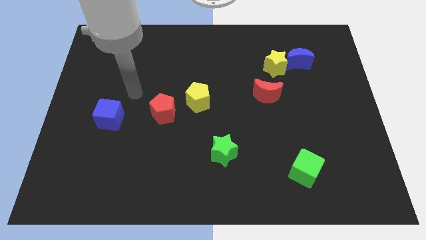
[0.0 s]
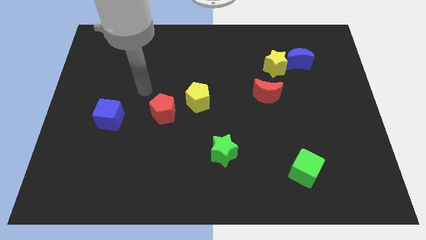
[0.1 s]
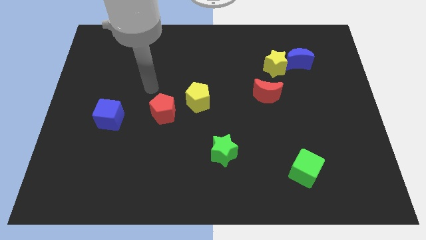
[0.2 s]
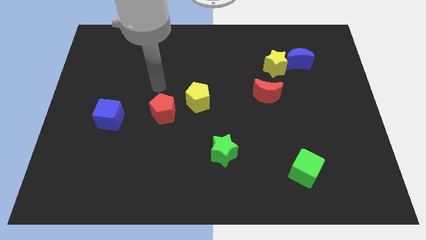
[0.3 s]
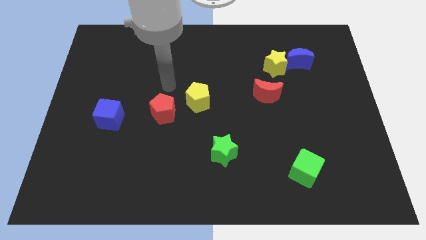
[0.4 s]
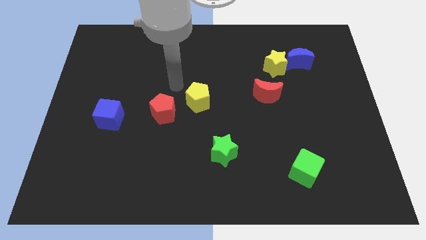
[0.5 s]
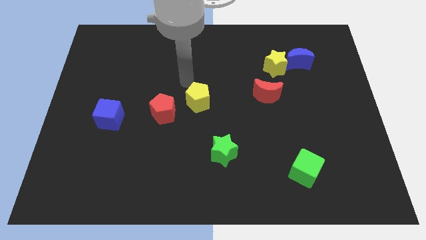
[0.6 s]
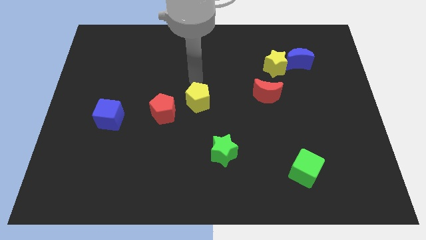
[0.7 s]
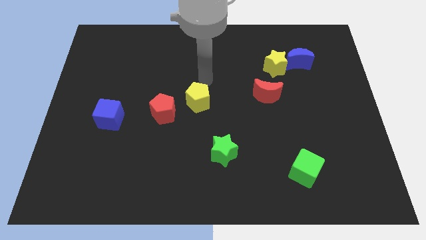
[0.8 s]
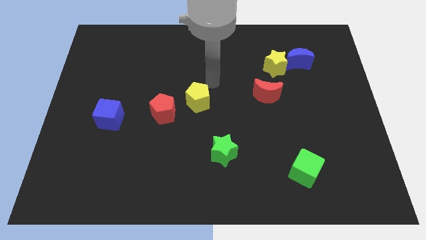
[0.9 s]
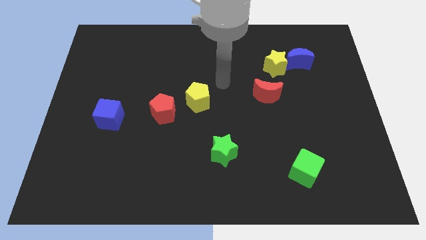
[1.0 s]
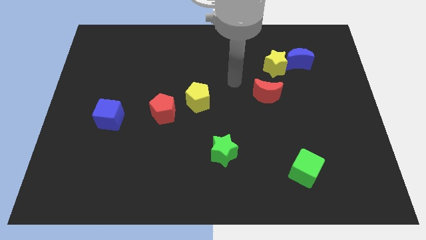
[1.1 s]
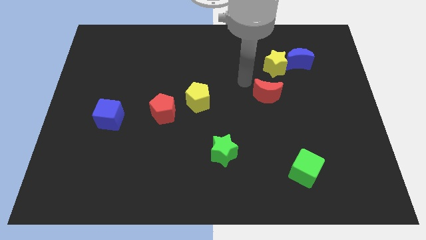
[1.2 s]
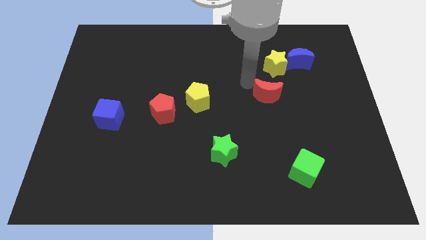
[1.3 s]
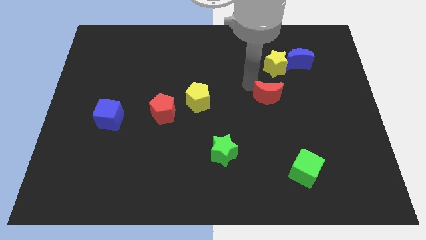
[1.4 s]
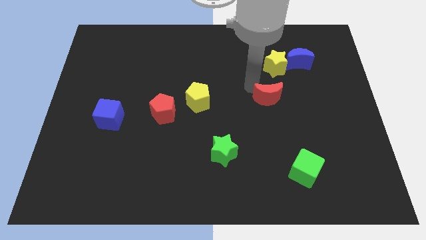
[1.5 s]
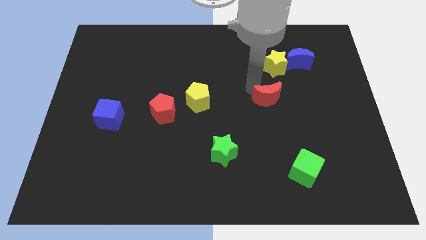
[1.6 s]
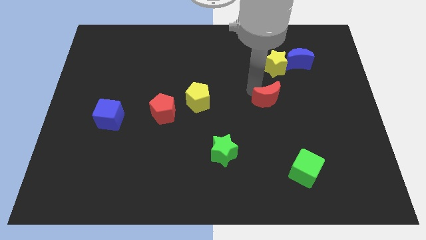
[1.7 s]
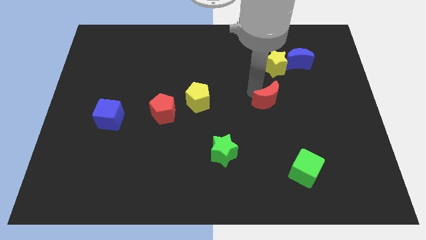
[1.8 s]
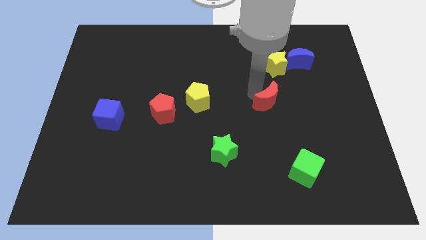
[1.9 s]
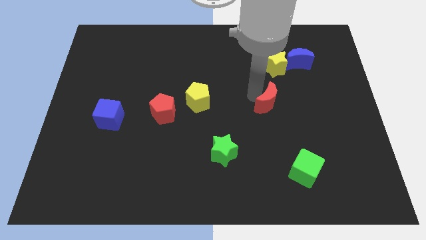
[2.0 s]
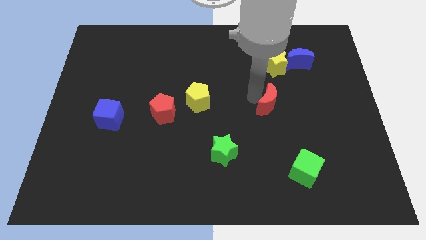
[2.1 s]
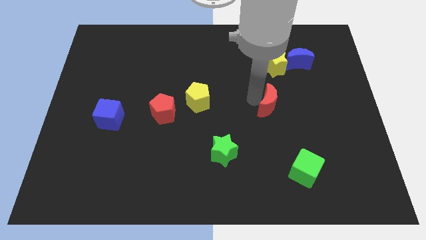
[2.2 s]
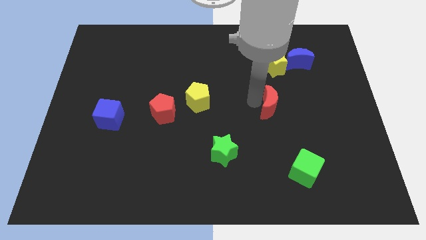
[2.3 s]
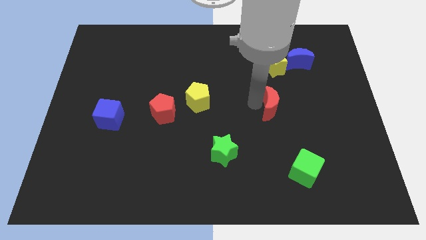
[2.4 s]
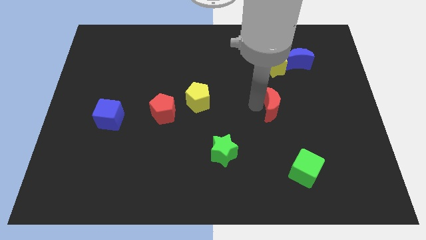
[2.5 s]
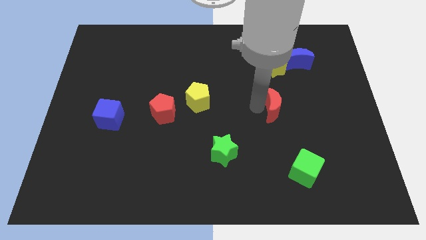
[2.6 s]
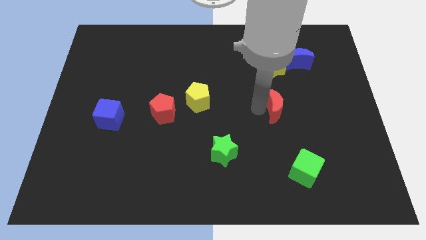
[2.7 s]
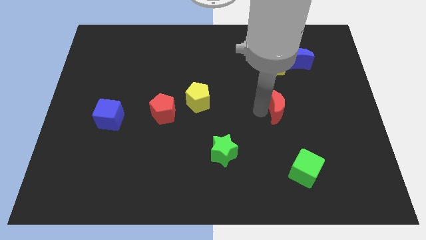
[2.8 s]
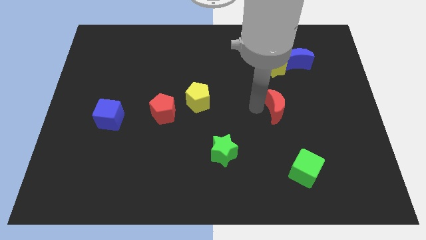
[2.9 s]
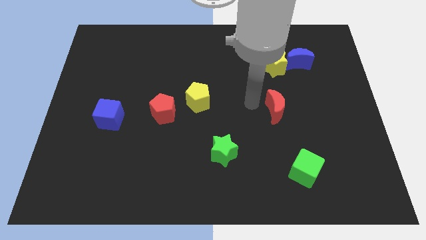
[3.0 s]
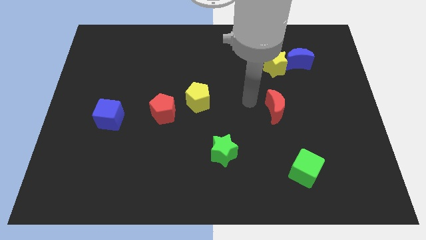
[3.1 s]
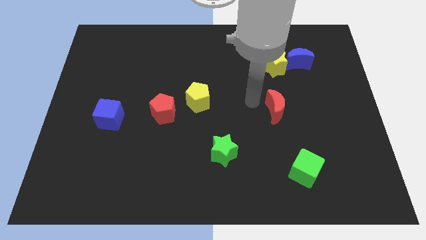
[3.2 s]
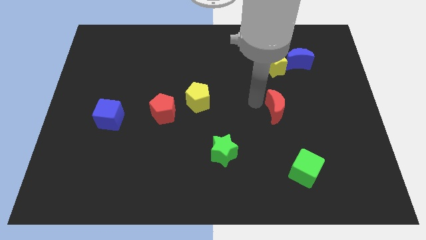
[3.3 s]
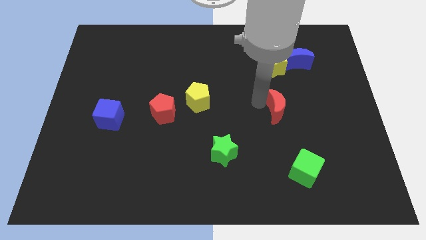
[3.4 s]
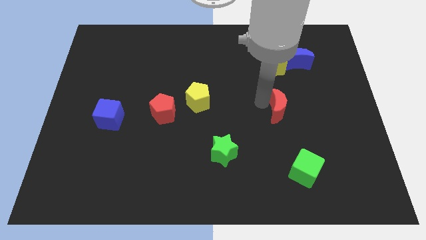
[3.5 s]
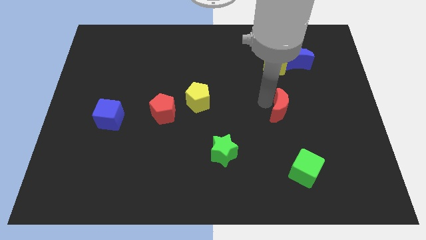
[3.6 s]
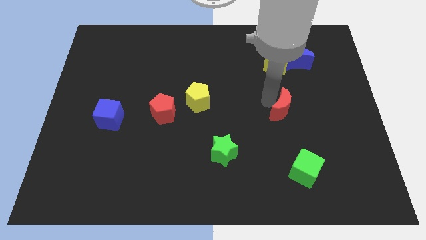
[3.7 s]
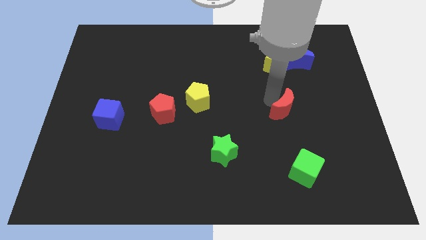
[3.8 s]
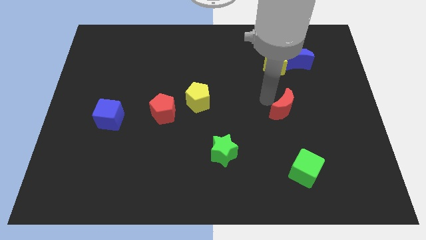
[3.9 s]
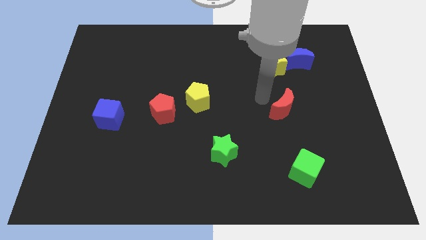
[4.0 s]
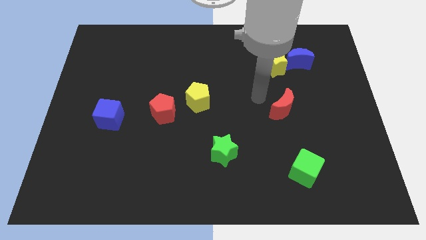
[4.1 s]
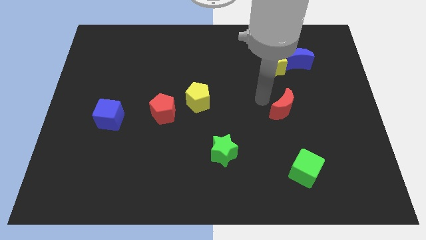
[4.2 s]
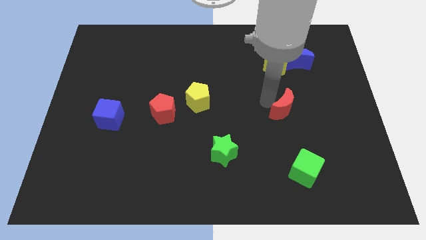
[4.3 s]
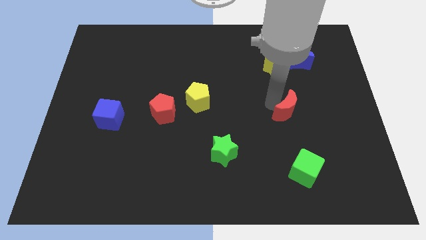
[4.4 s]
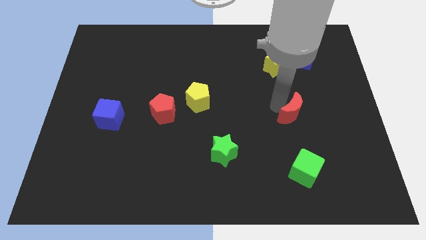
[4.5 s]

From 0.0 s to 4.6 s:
slightly push the red moon downwards and then right

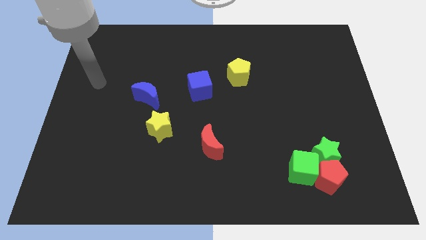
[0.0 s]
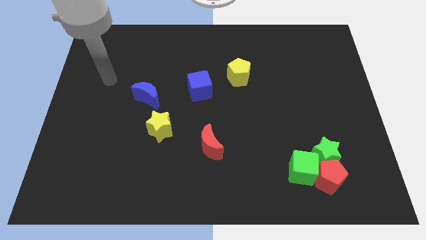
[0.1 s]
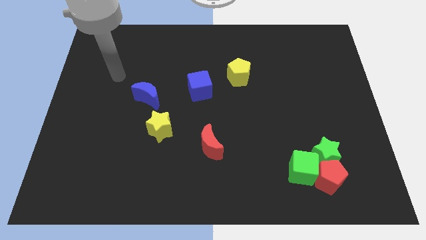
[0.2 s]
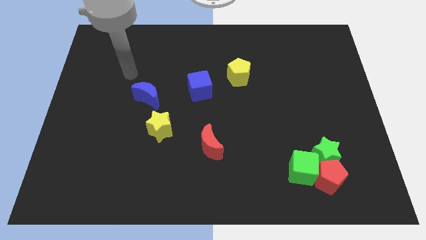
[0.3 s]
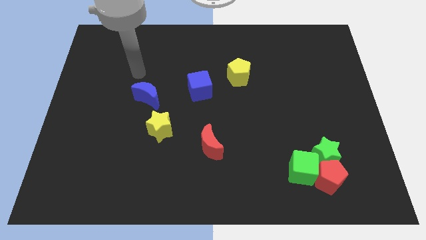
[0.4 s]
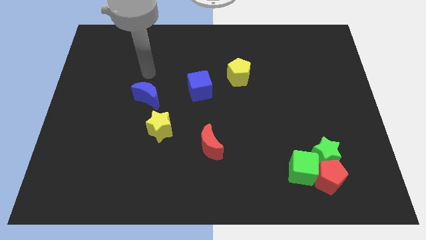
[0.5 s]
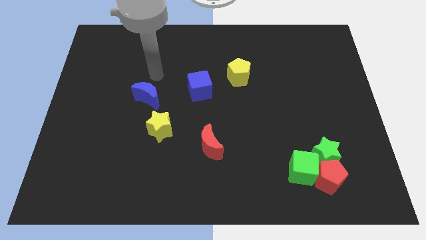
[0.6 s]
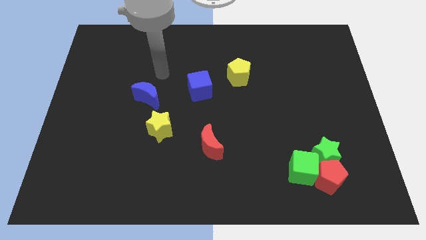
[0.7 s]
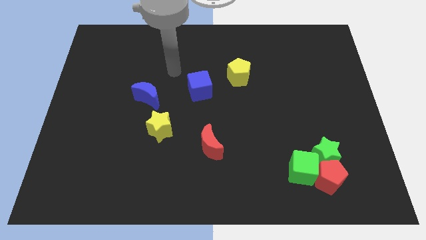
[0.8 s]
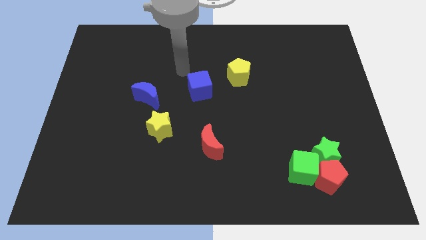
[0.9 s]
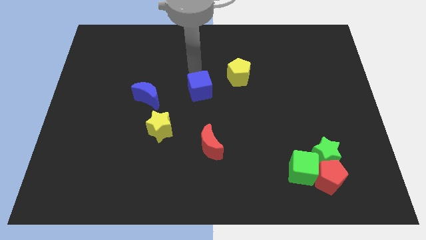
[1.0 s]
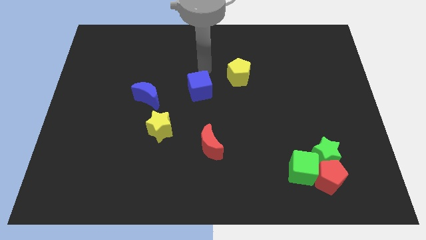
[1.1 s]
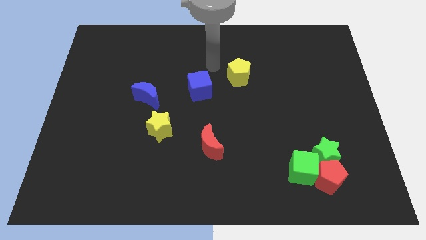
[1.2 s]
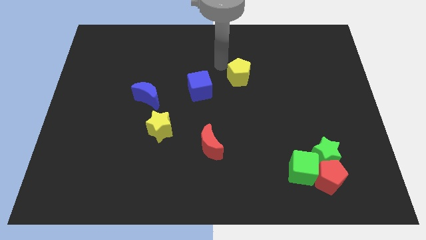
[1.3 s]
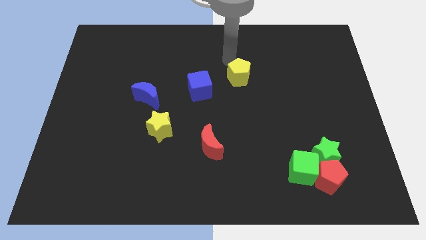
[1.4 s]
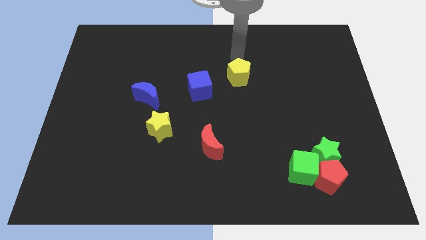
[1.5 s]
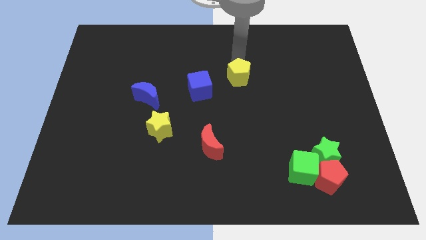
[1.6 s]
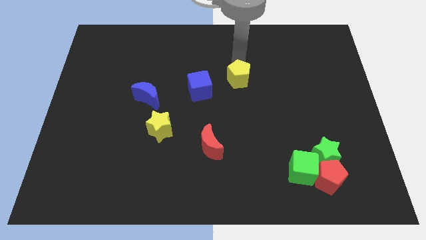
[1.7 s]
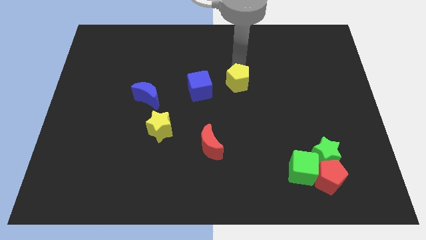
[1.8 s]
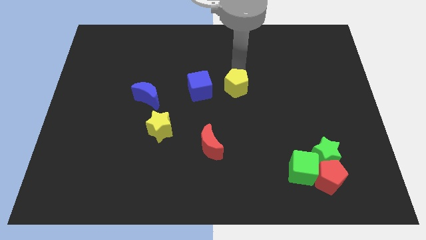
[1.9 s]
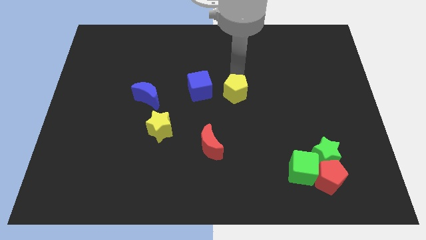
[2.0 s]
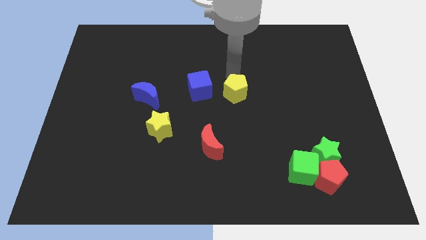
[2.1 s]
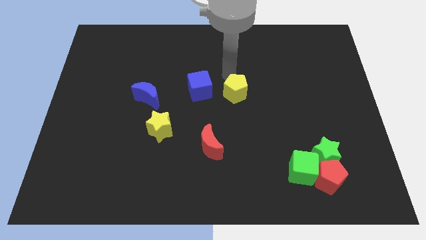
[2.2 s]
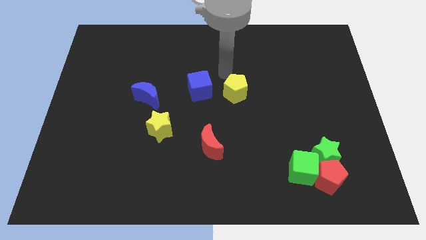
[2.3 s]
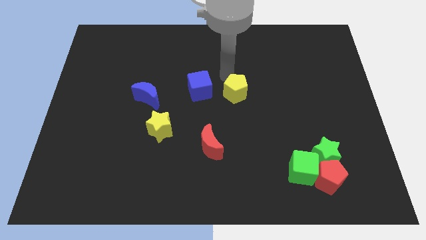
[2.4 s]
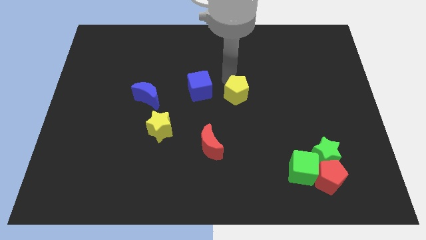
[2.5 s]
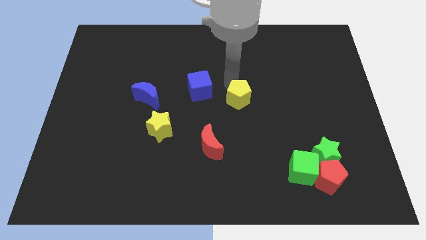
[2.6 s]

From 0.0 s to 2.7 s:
slide the yellow pentagon downwards a little bit

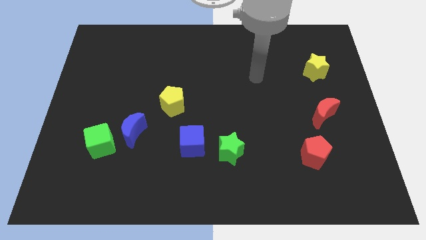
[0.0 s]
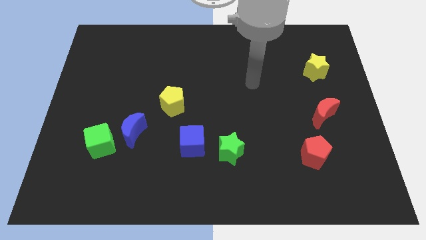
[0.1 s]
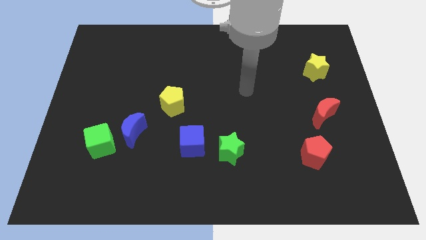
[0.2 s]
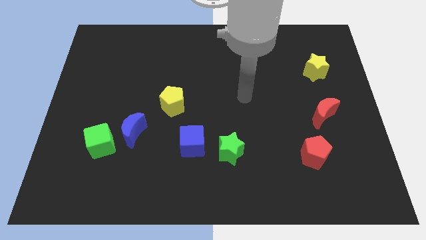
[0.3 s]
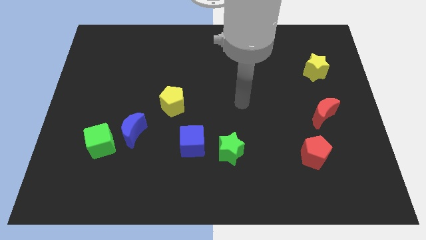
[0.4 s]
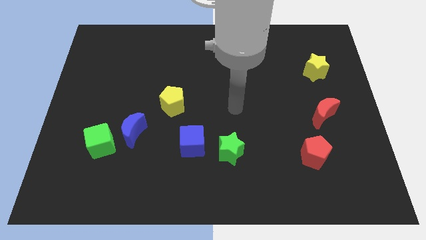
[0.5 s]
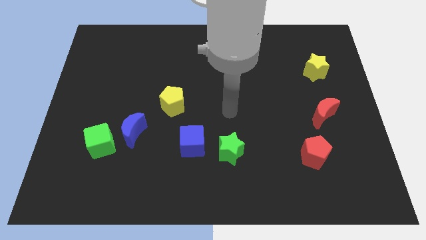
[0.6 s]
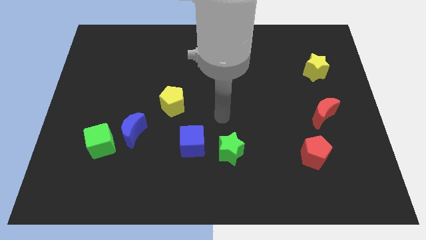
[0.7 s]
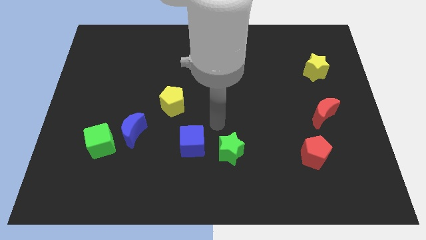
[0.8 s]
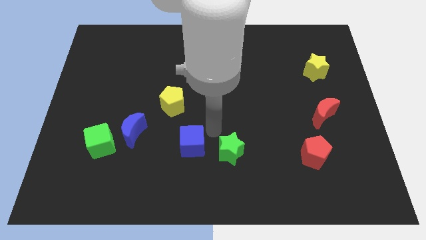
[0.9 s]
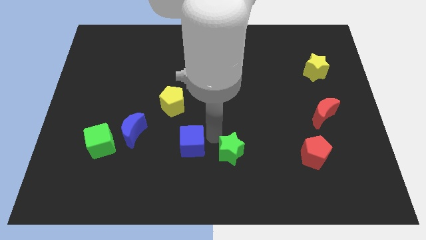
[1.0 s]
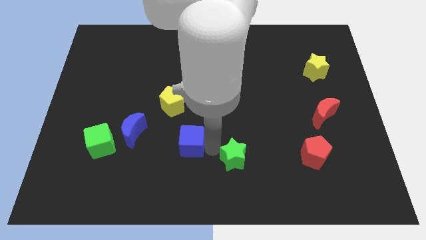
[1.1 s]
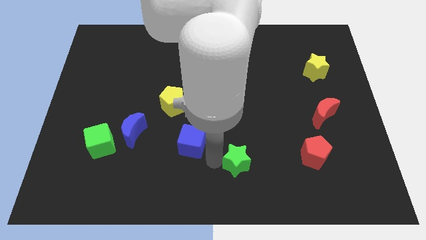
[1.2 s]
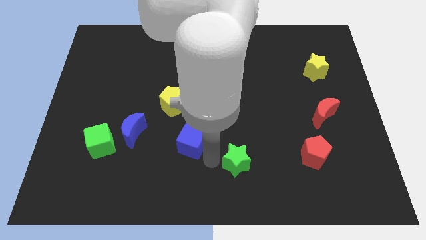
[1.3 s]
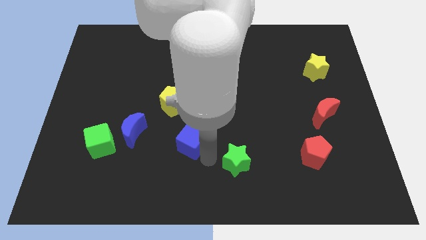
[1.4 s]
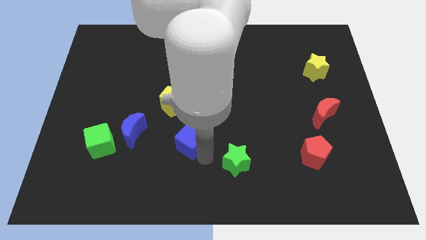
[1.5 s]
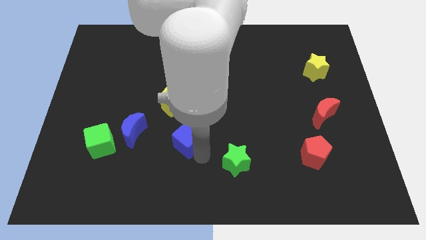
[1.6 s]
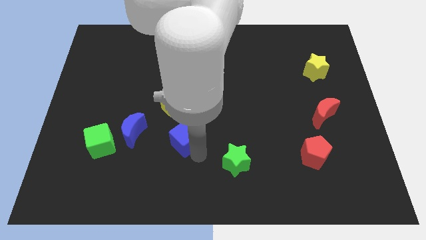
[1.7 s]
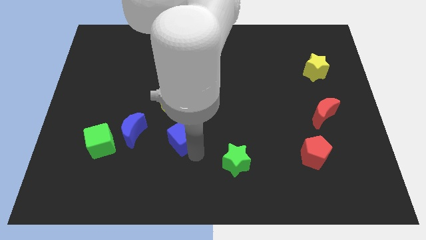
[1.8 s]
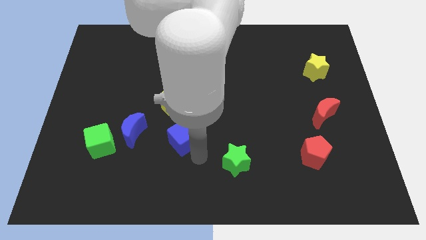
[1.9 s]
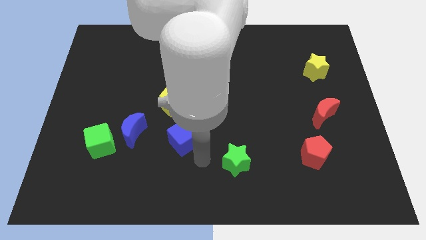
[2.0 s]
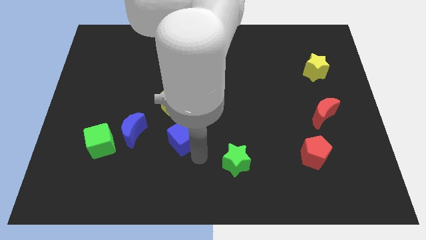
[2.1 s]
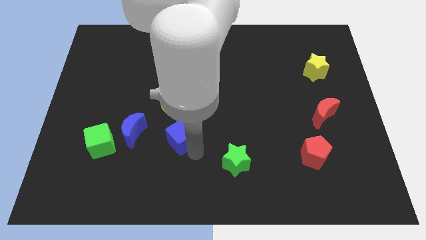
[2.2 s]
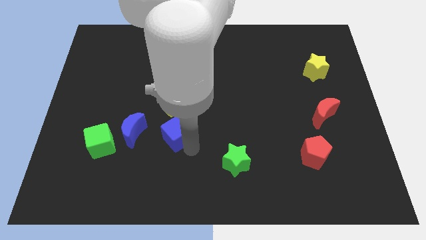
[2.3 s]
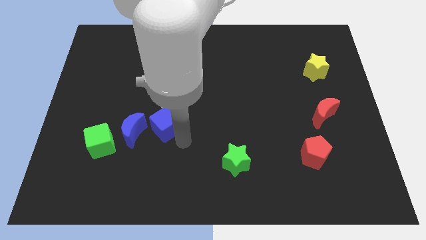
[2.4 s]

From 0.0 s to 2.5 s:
move the blue cube a little bit upwards and to the left diagonally
